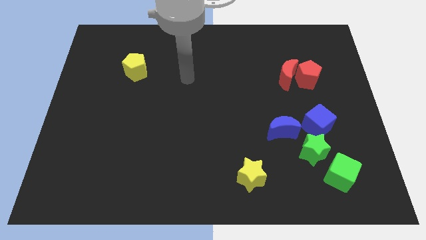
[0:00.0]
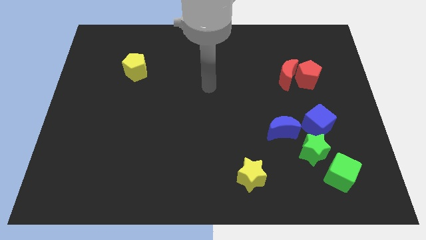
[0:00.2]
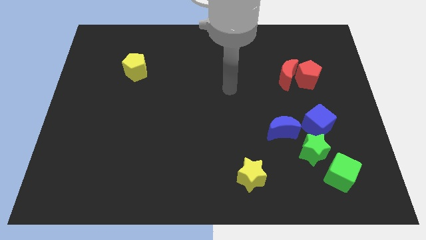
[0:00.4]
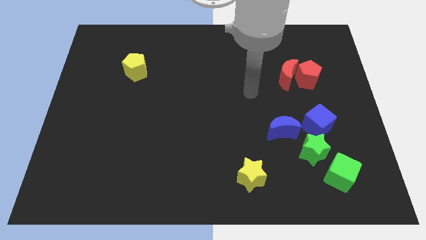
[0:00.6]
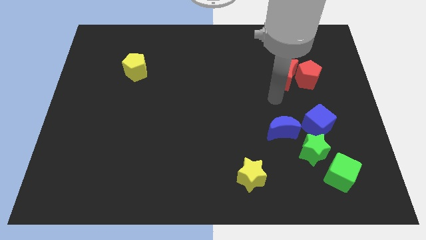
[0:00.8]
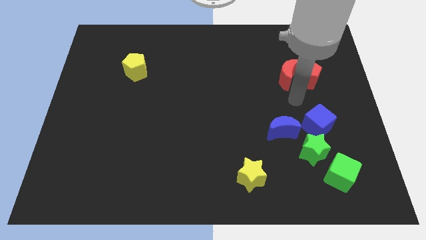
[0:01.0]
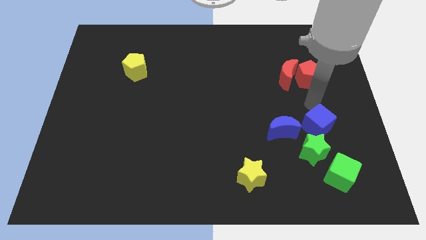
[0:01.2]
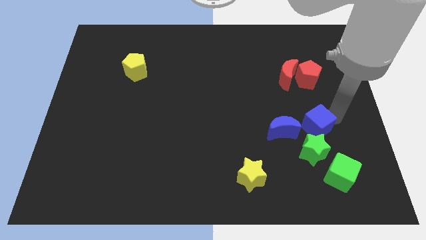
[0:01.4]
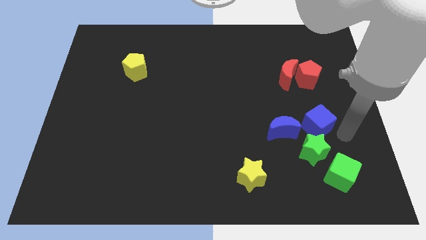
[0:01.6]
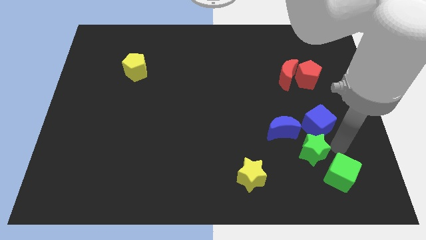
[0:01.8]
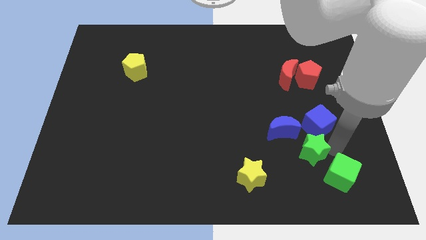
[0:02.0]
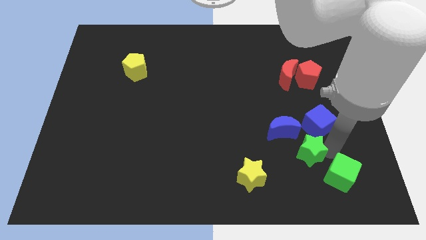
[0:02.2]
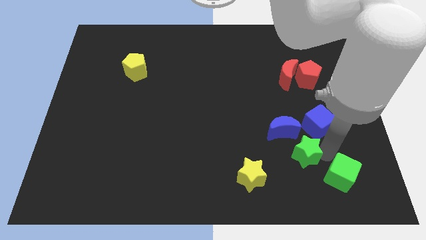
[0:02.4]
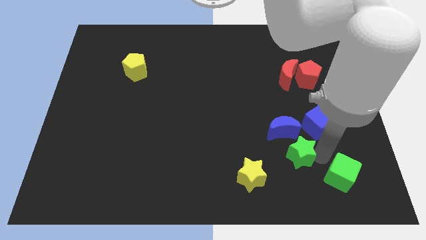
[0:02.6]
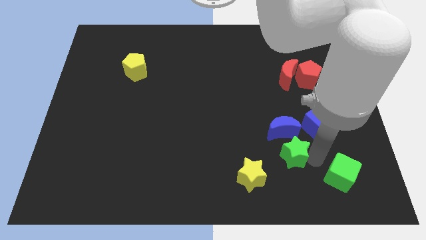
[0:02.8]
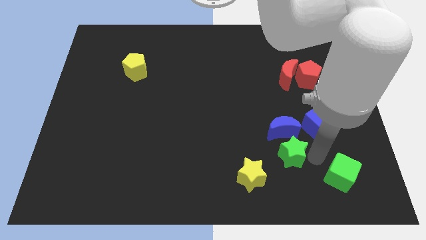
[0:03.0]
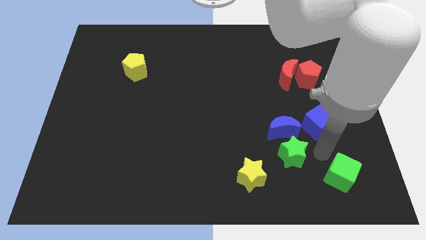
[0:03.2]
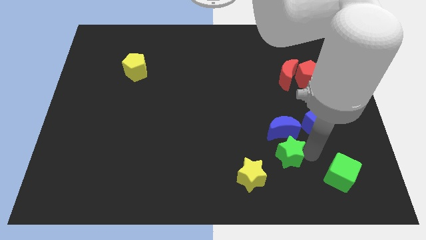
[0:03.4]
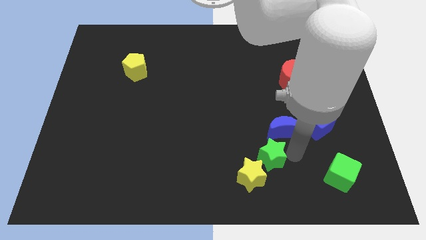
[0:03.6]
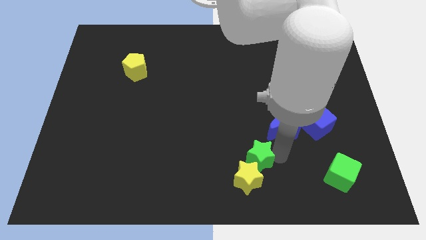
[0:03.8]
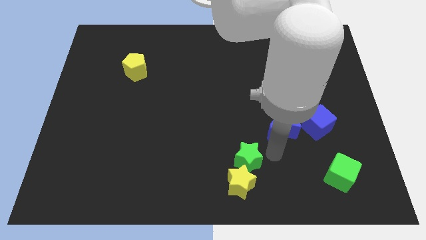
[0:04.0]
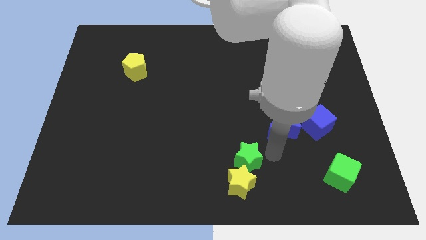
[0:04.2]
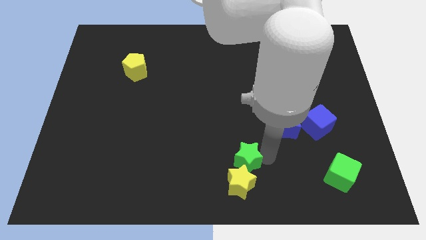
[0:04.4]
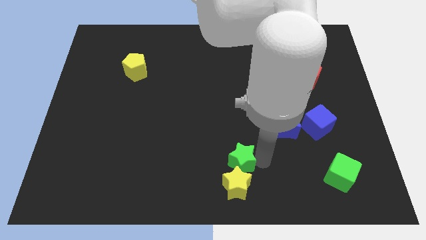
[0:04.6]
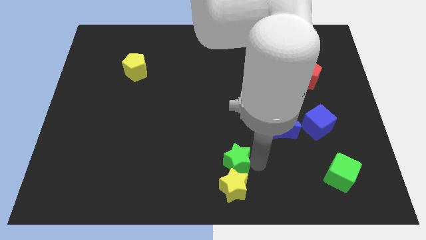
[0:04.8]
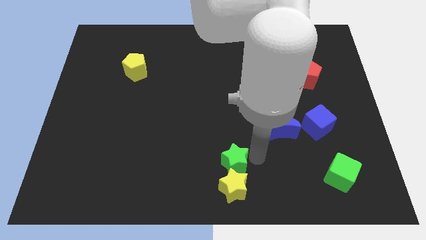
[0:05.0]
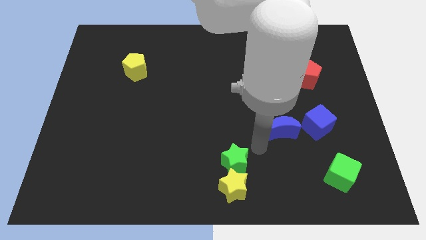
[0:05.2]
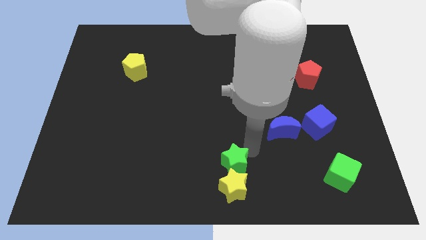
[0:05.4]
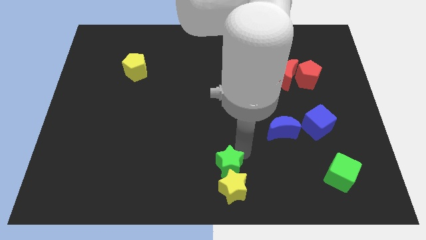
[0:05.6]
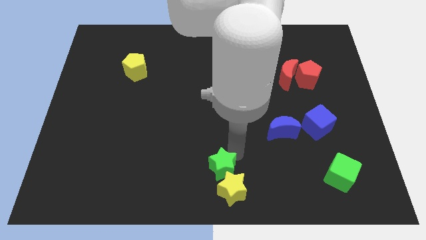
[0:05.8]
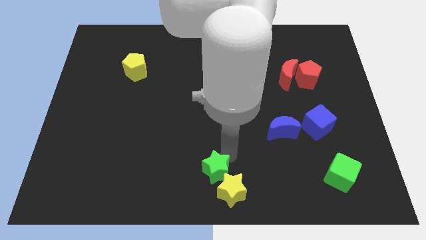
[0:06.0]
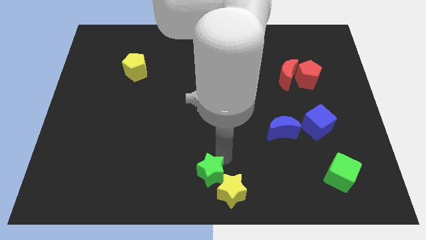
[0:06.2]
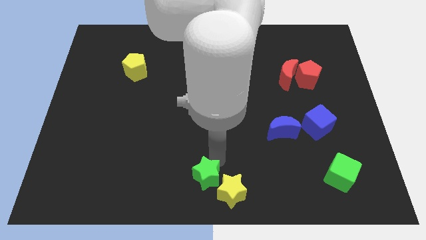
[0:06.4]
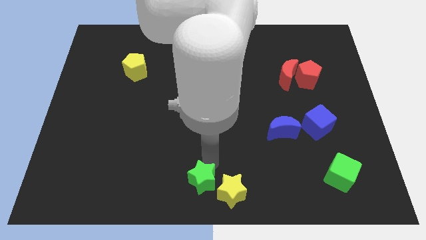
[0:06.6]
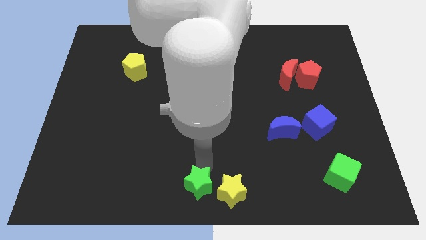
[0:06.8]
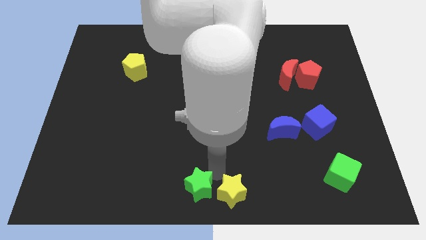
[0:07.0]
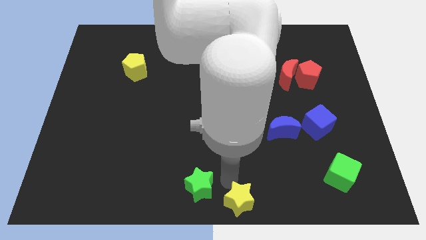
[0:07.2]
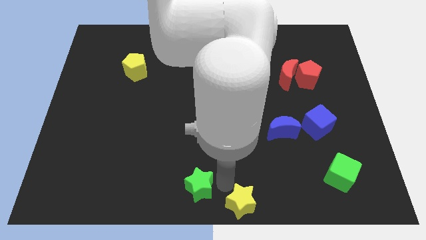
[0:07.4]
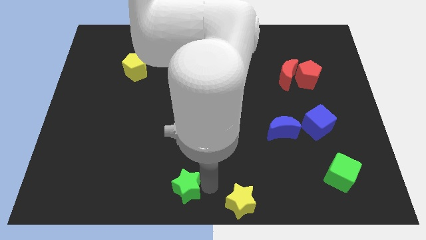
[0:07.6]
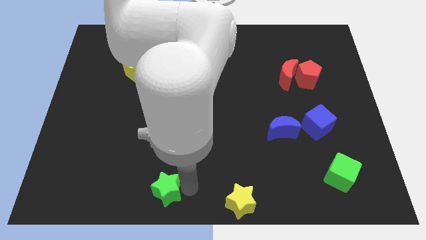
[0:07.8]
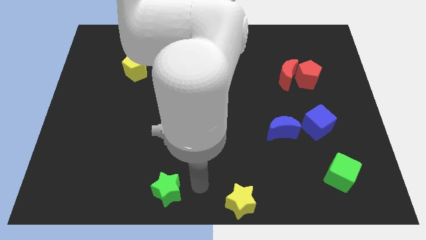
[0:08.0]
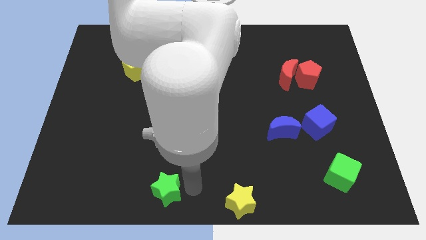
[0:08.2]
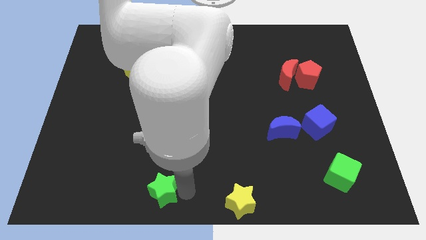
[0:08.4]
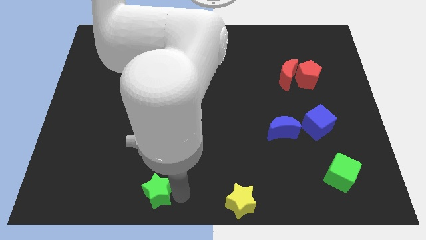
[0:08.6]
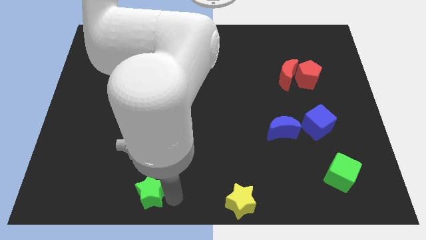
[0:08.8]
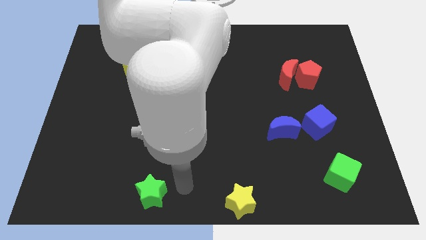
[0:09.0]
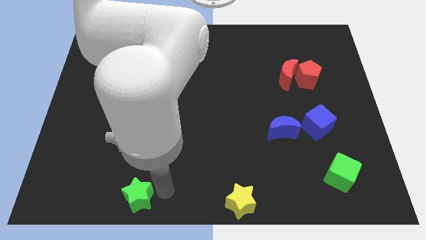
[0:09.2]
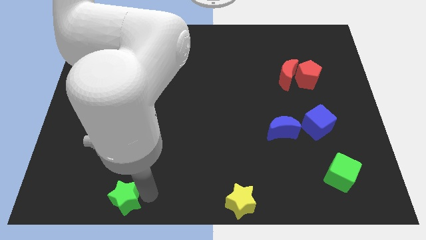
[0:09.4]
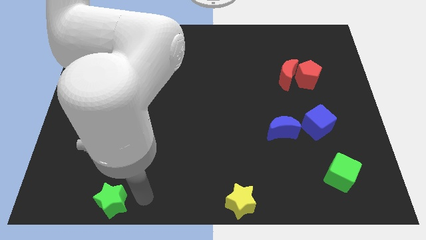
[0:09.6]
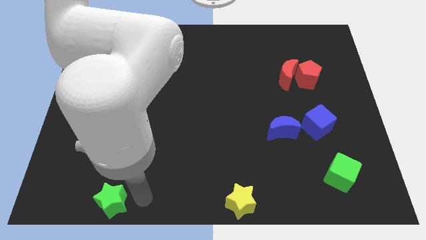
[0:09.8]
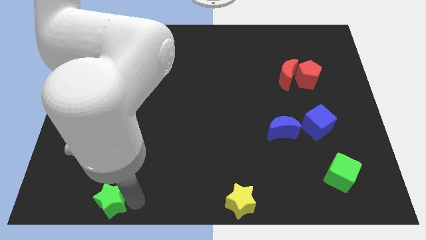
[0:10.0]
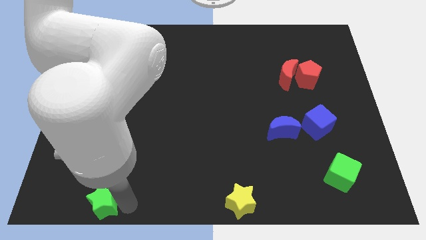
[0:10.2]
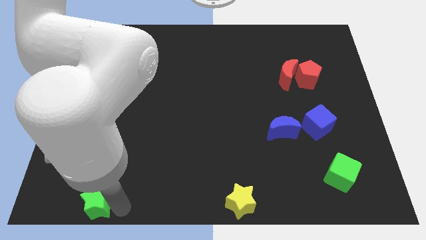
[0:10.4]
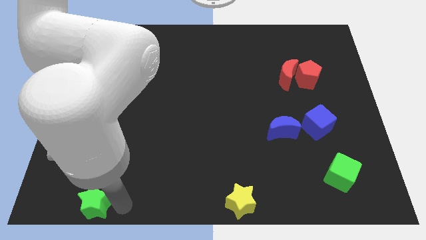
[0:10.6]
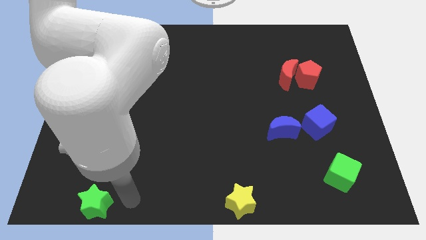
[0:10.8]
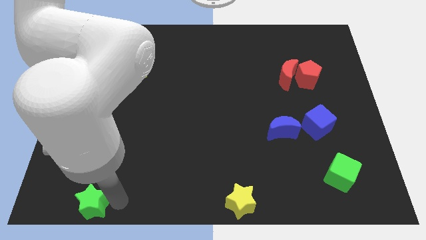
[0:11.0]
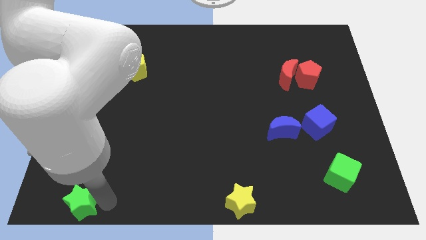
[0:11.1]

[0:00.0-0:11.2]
put the green star to the bottom left corner

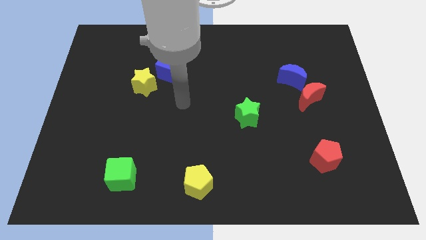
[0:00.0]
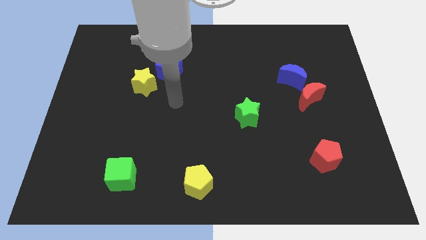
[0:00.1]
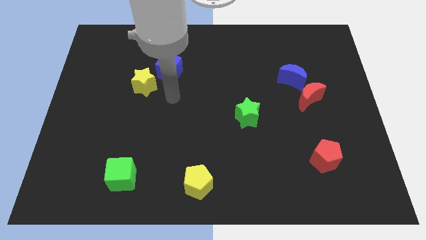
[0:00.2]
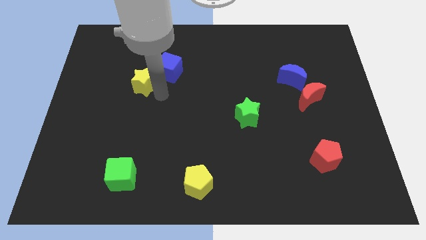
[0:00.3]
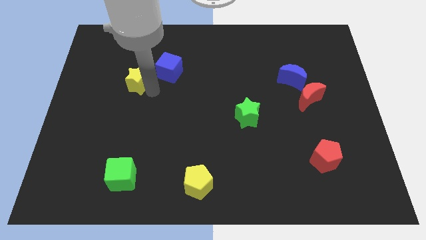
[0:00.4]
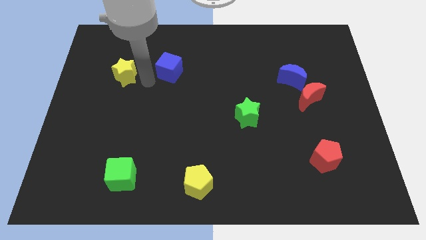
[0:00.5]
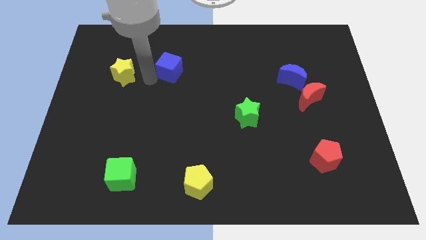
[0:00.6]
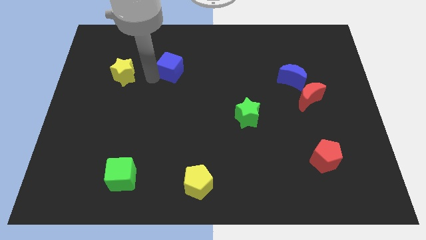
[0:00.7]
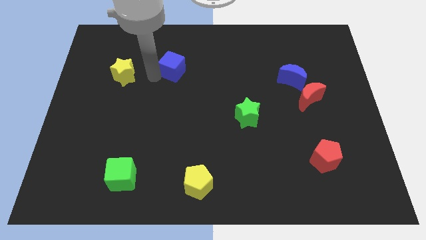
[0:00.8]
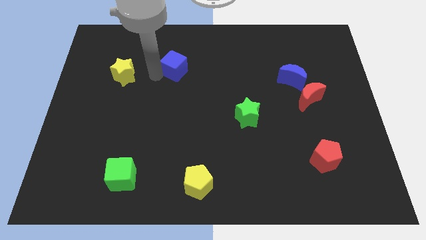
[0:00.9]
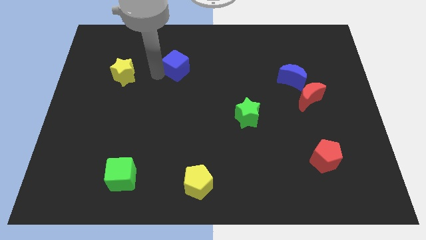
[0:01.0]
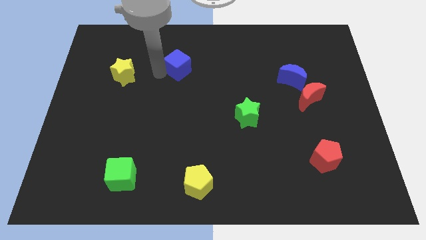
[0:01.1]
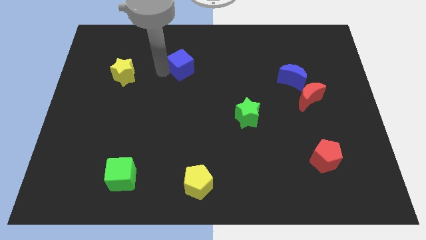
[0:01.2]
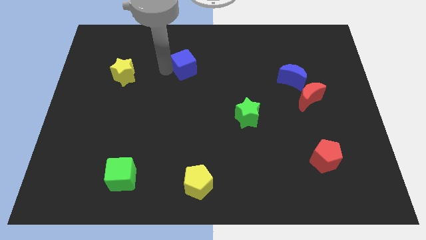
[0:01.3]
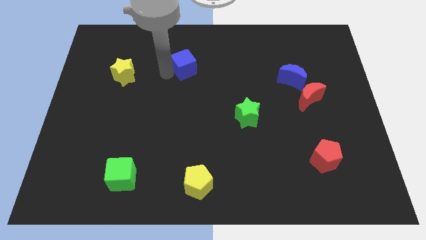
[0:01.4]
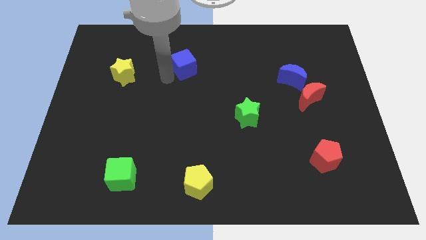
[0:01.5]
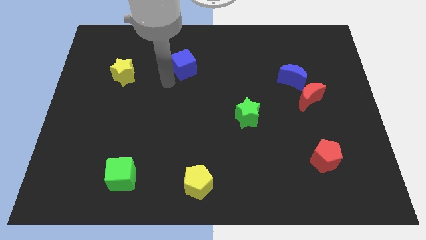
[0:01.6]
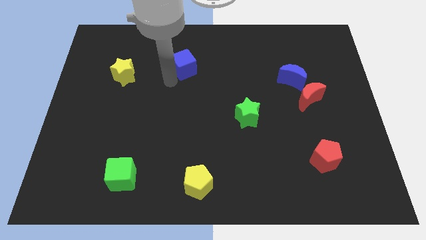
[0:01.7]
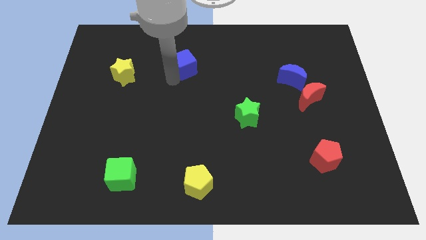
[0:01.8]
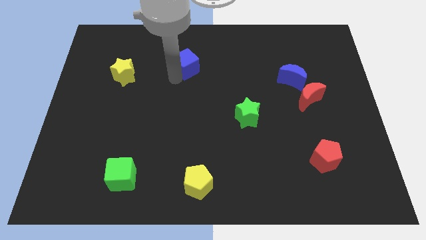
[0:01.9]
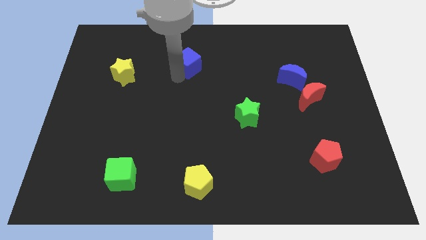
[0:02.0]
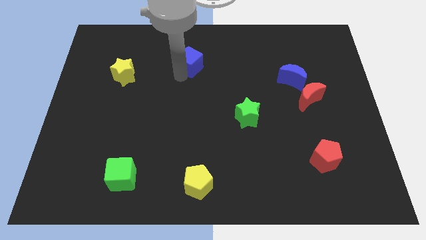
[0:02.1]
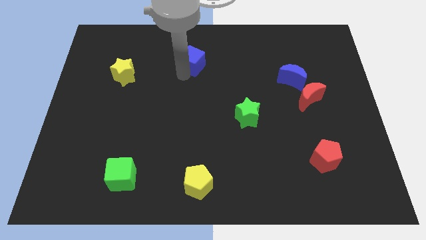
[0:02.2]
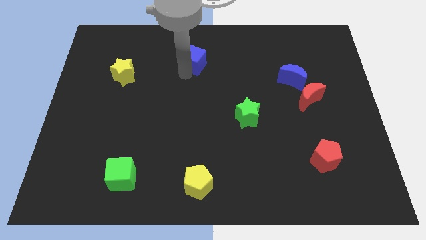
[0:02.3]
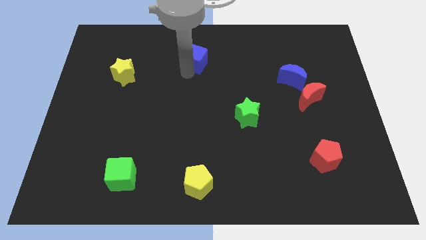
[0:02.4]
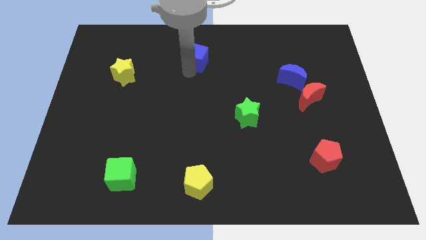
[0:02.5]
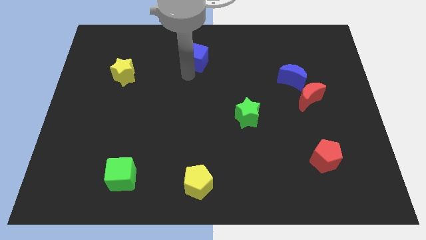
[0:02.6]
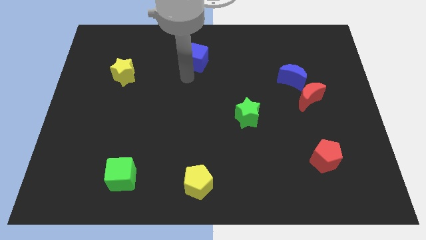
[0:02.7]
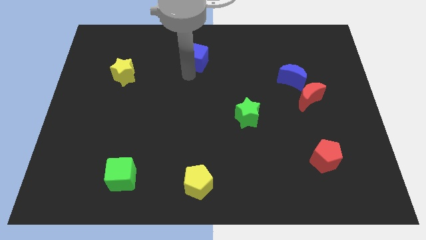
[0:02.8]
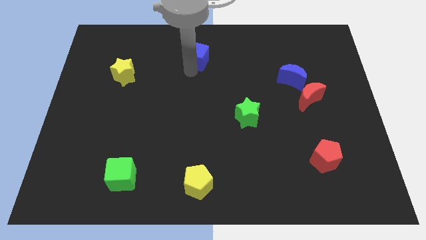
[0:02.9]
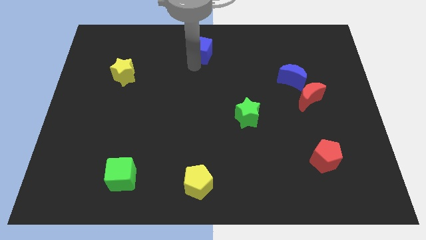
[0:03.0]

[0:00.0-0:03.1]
push the blue cube to the towards your base
